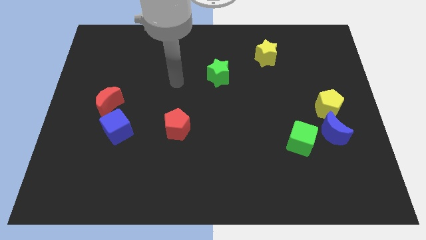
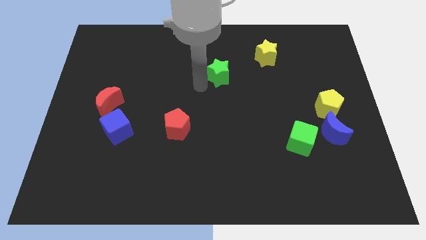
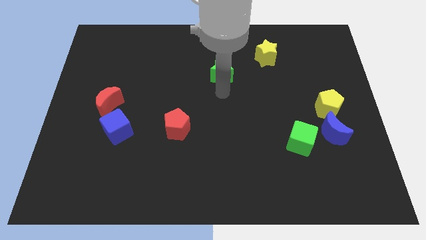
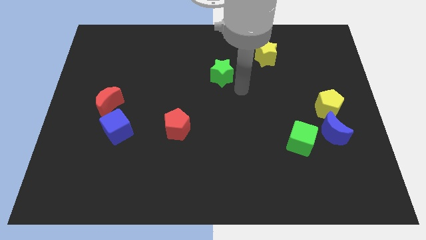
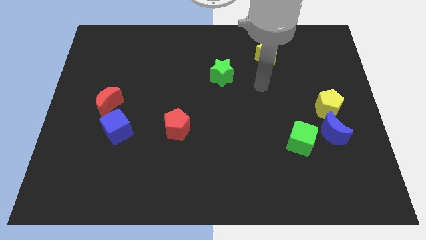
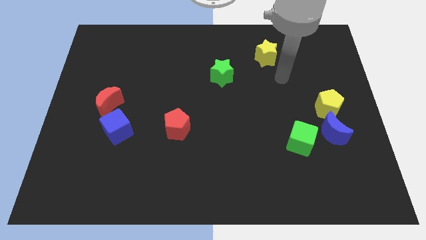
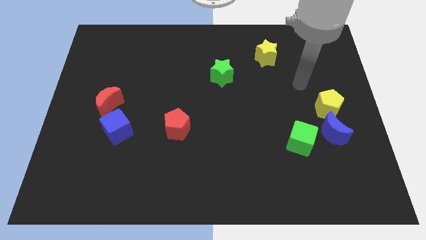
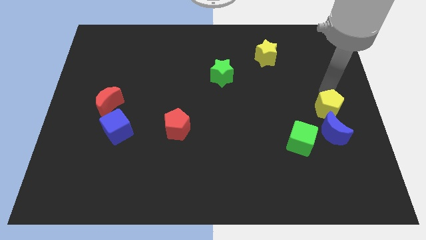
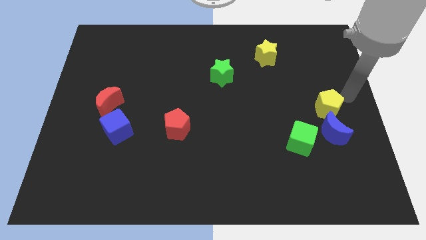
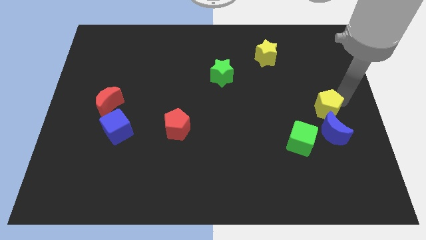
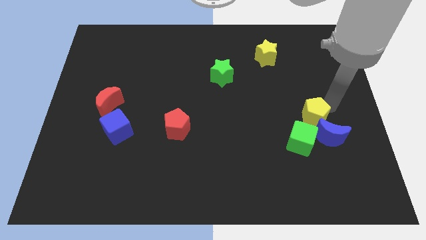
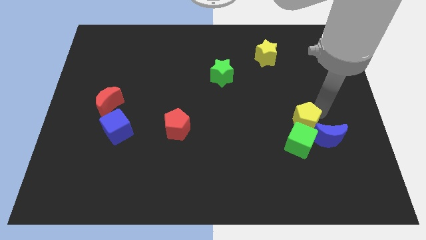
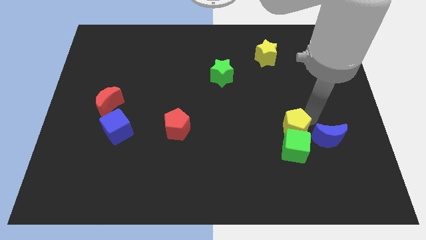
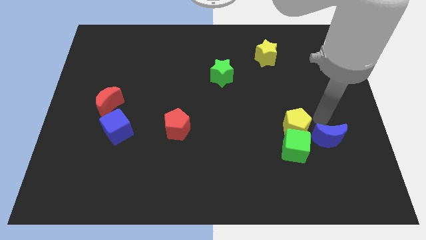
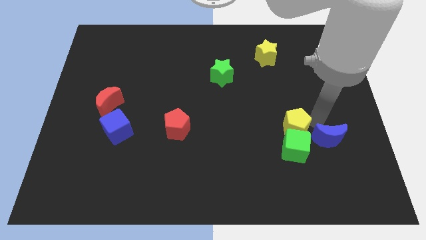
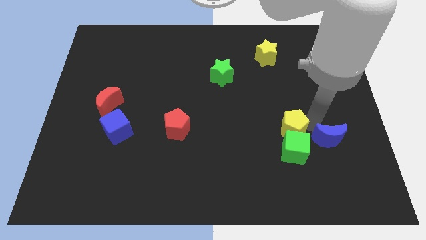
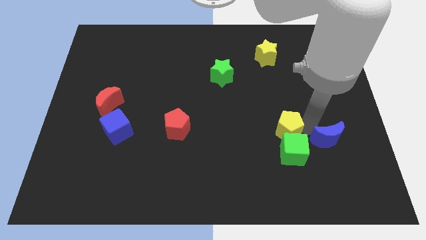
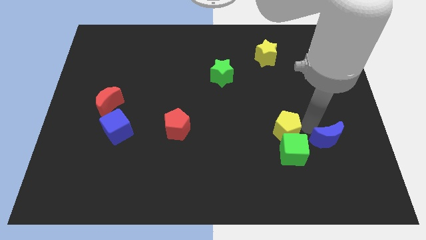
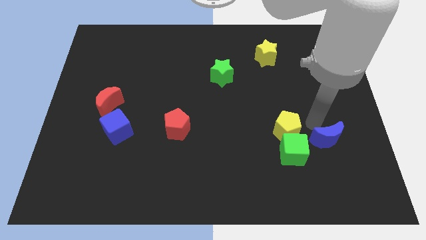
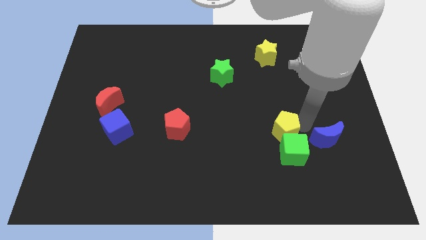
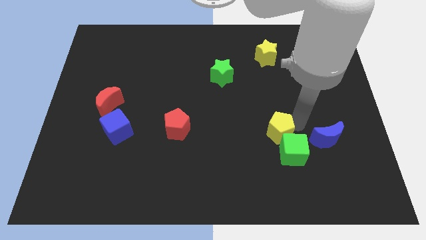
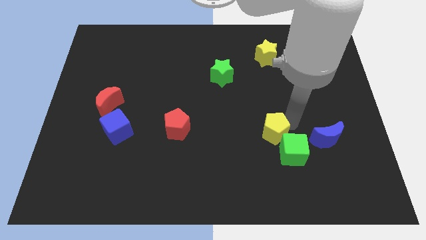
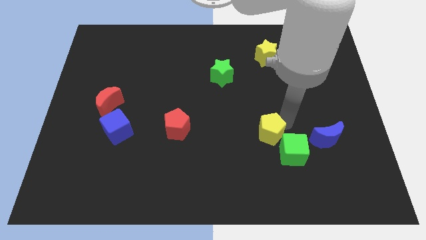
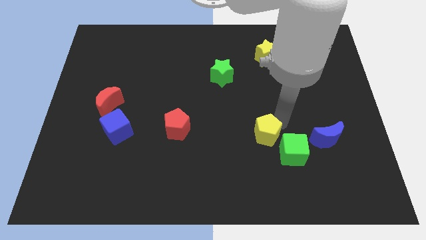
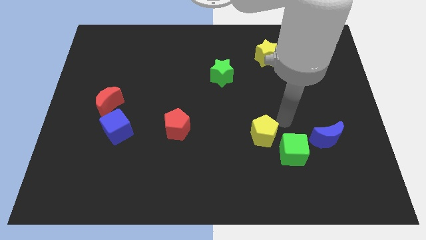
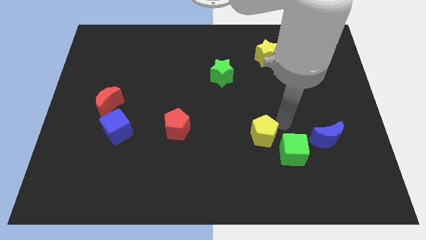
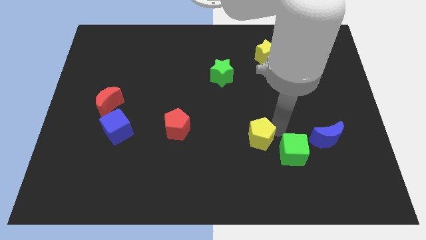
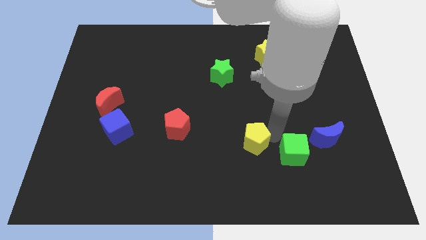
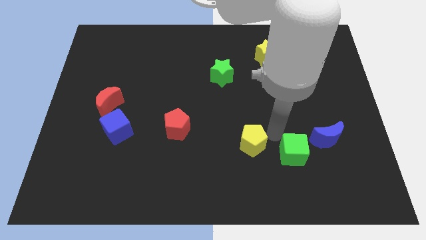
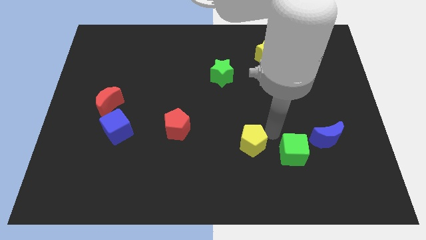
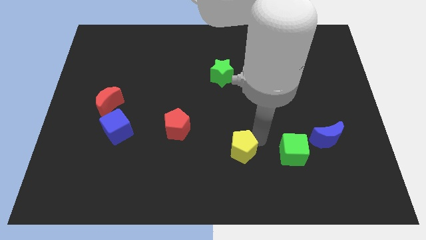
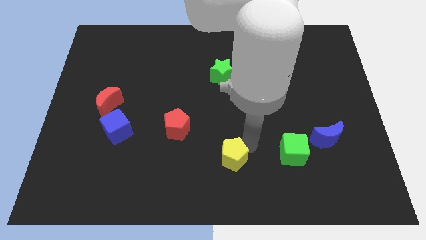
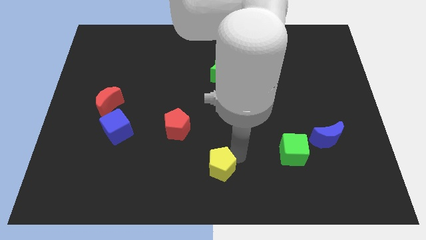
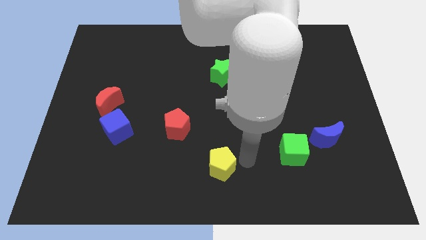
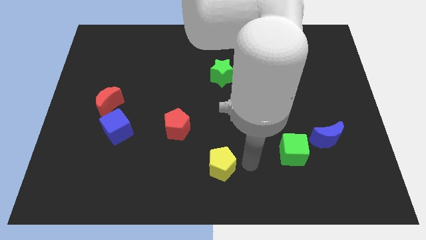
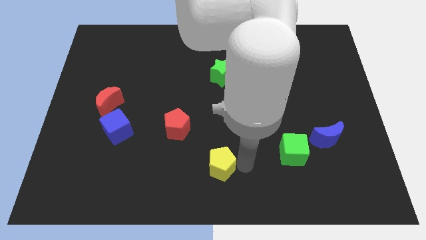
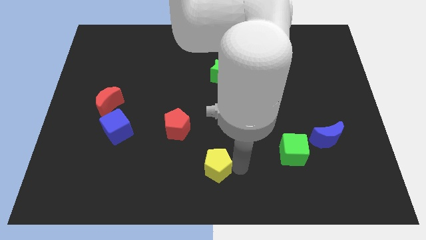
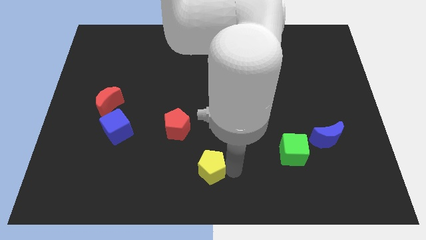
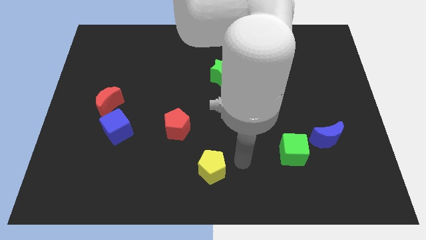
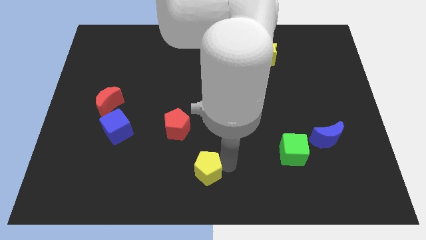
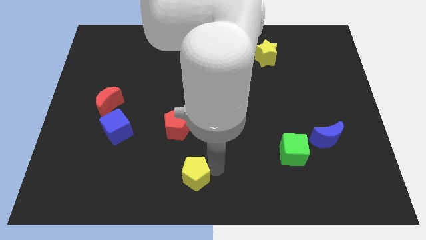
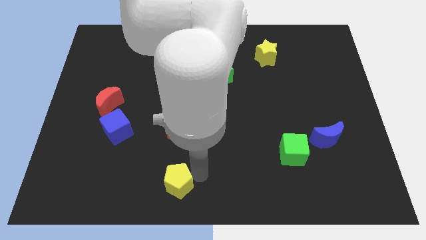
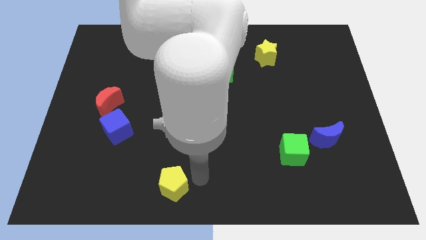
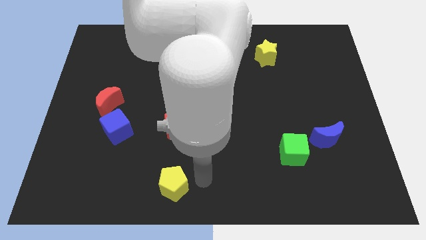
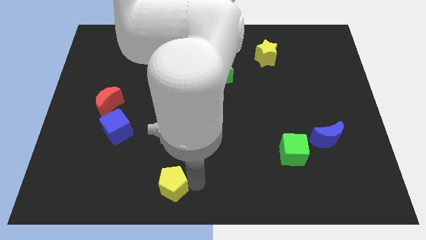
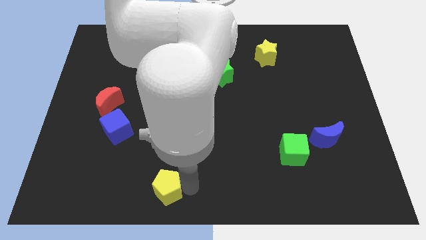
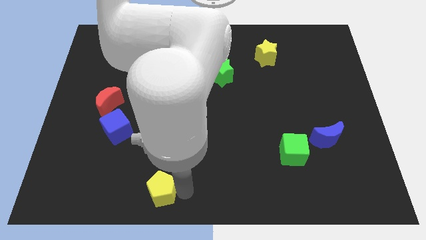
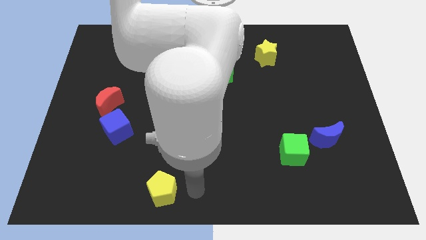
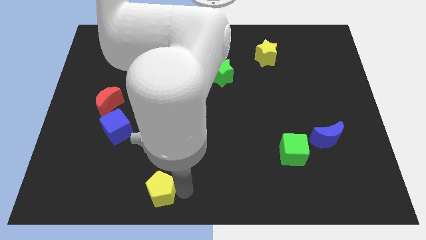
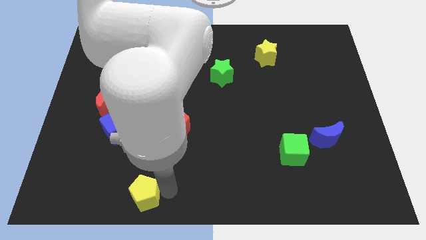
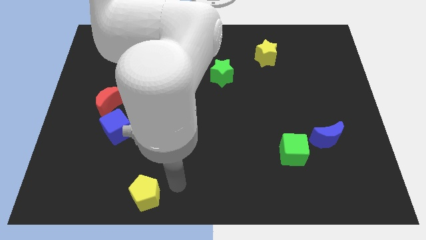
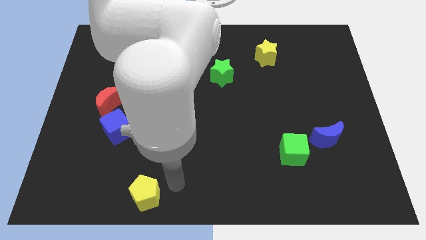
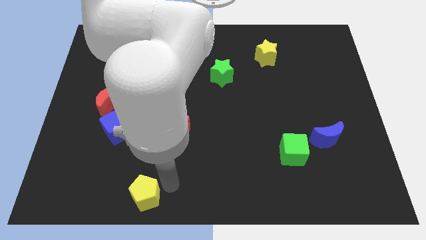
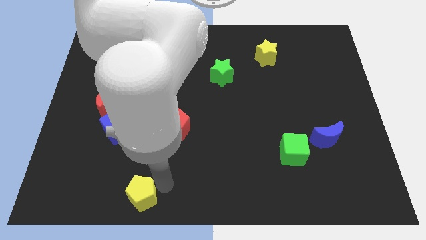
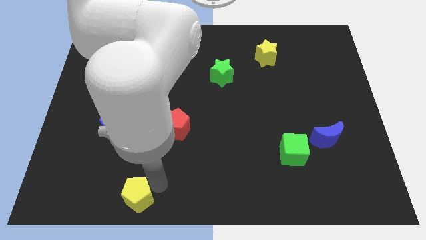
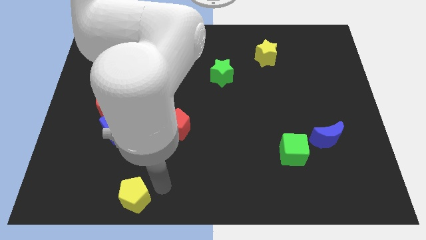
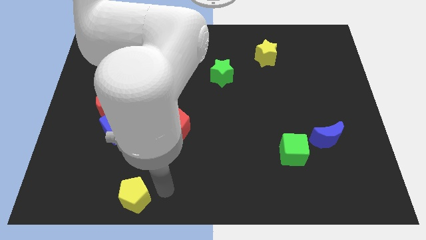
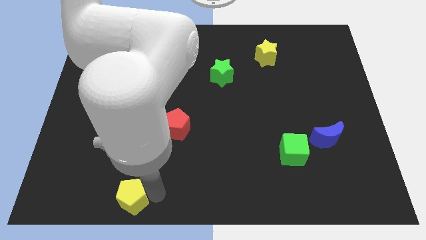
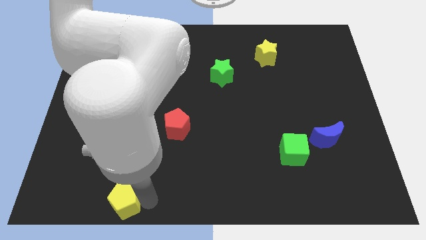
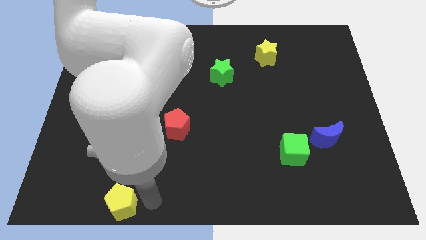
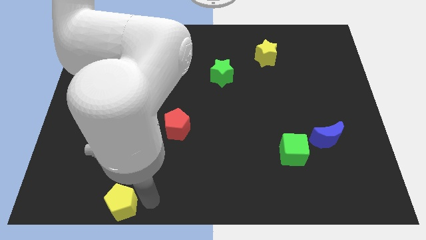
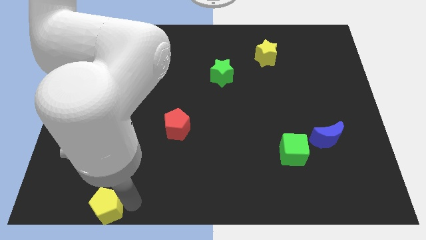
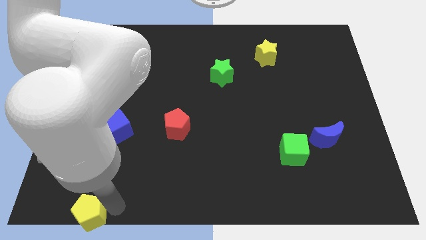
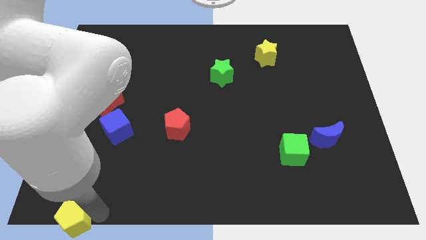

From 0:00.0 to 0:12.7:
slide the yellow pentagon to the lower left corner
